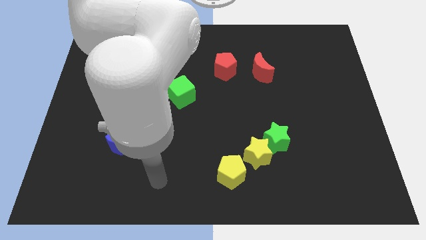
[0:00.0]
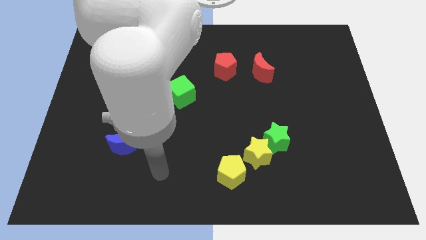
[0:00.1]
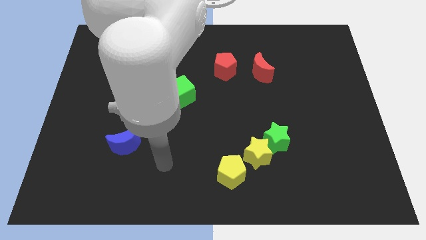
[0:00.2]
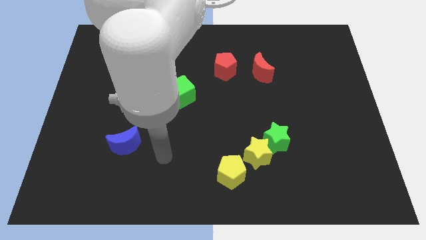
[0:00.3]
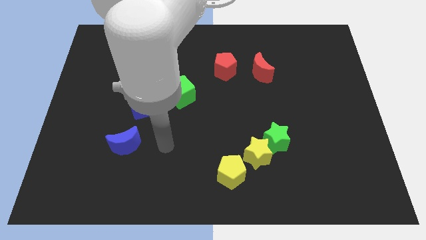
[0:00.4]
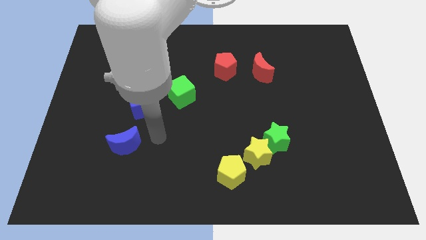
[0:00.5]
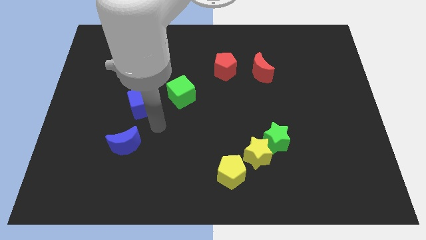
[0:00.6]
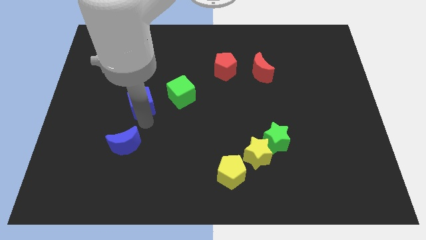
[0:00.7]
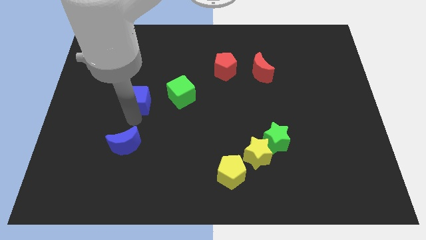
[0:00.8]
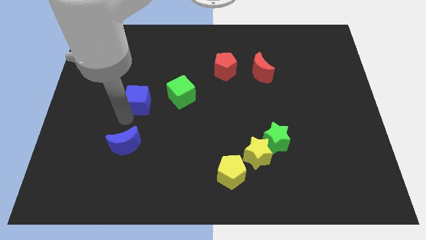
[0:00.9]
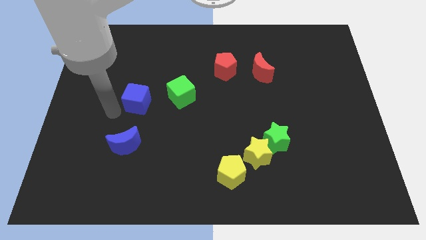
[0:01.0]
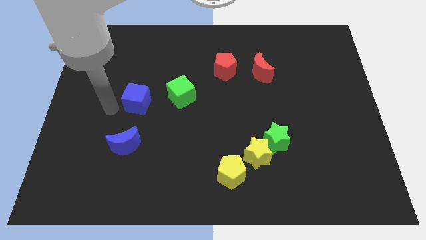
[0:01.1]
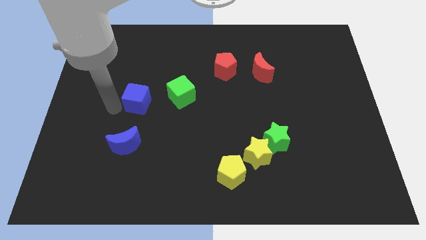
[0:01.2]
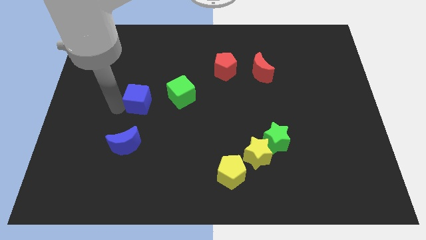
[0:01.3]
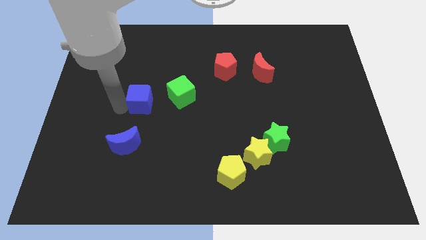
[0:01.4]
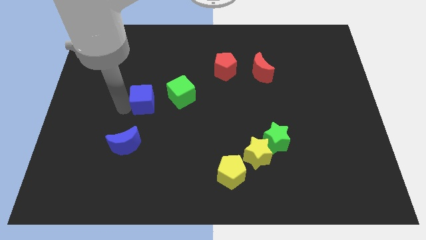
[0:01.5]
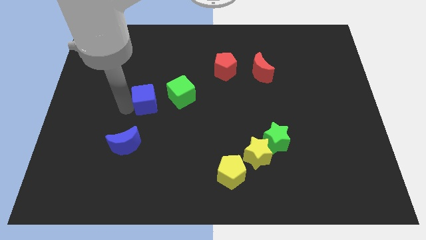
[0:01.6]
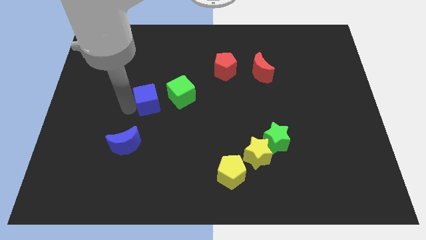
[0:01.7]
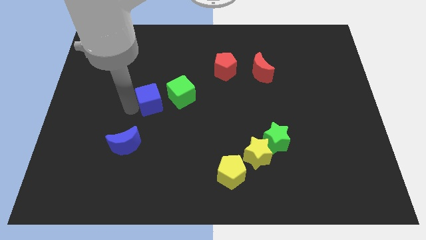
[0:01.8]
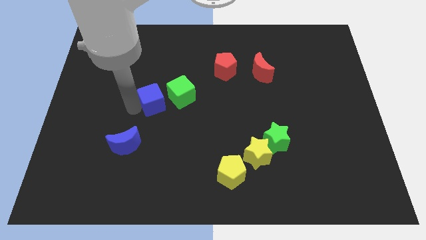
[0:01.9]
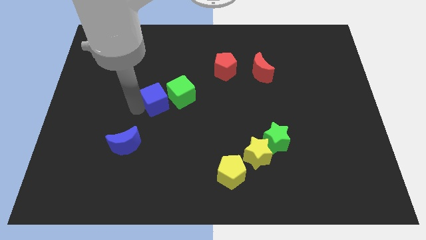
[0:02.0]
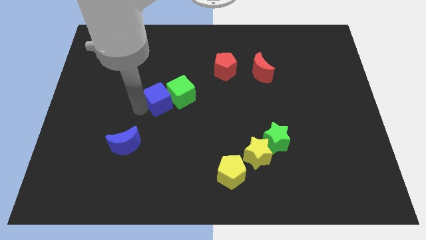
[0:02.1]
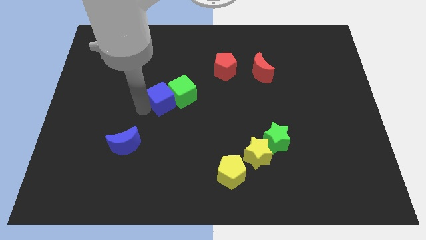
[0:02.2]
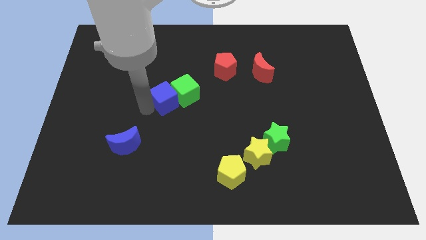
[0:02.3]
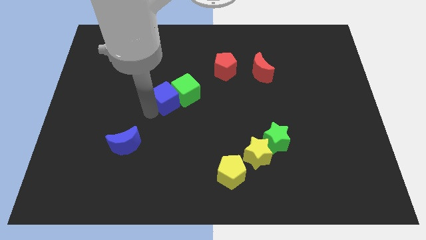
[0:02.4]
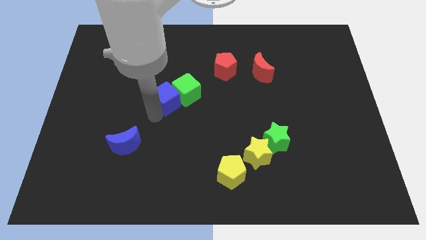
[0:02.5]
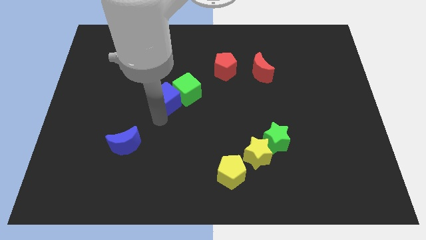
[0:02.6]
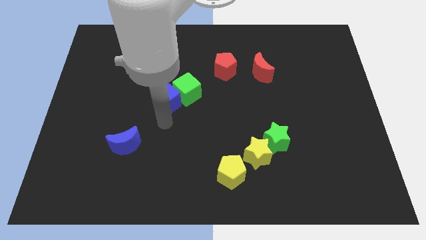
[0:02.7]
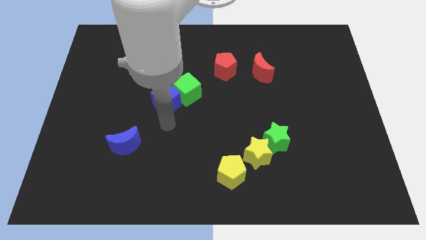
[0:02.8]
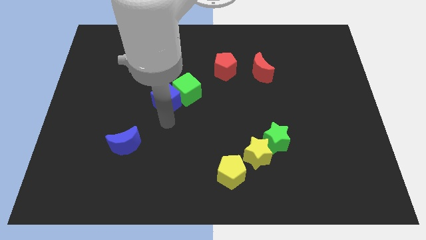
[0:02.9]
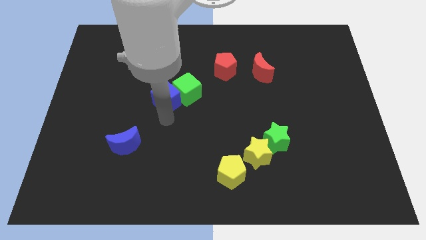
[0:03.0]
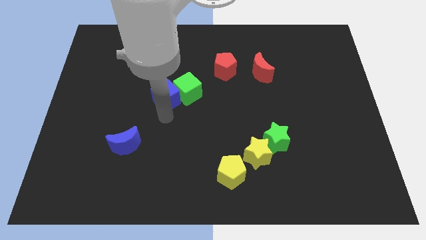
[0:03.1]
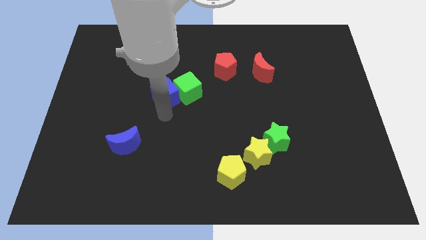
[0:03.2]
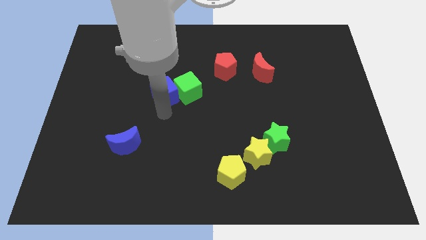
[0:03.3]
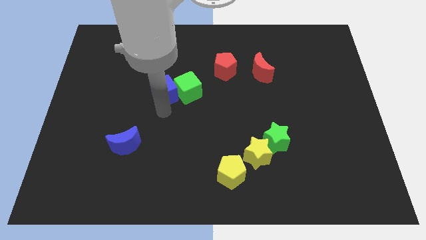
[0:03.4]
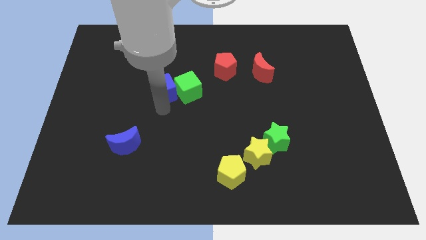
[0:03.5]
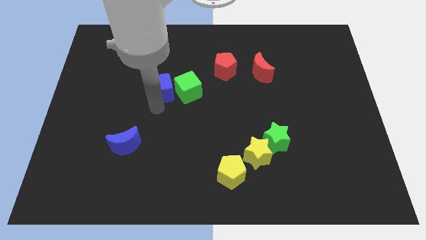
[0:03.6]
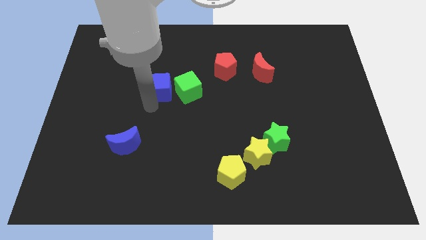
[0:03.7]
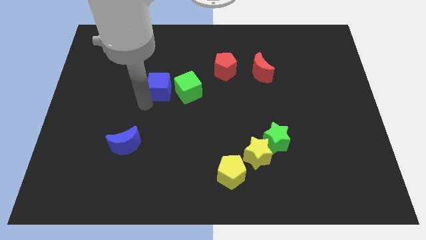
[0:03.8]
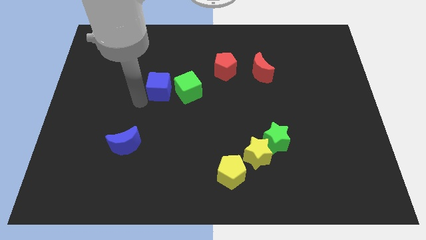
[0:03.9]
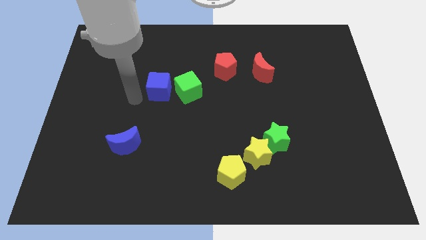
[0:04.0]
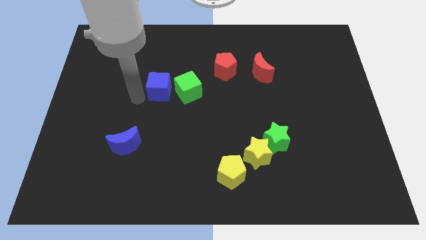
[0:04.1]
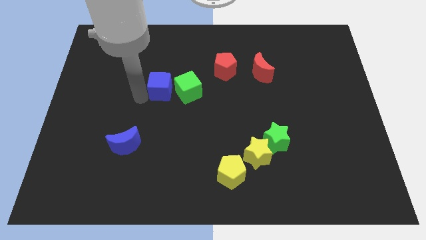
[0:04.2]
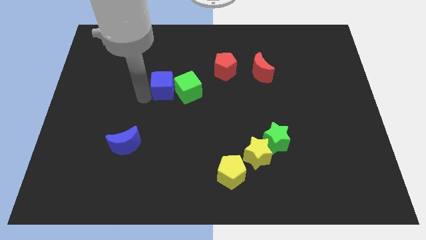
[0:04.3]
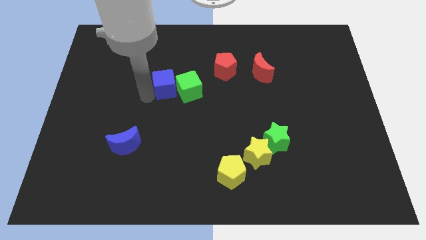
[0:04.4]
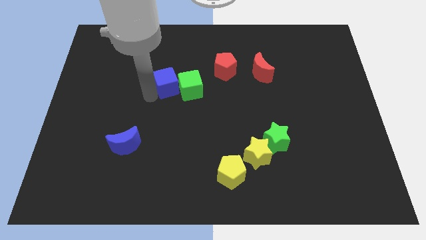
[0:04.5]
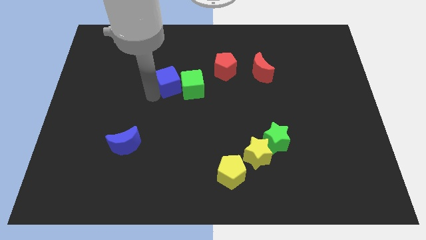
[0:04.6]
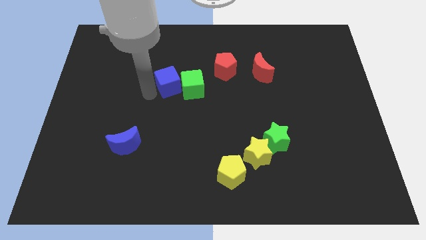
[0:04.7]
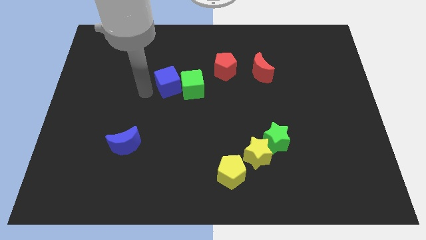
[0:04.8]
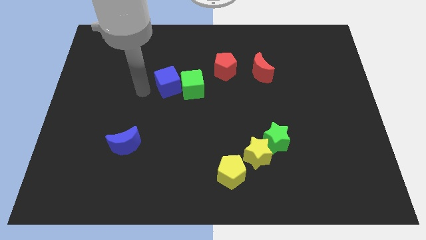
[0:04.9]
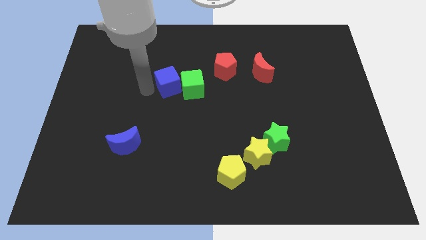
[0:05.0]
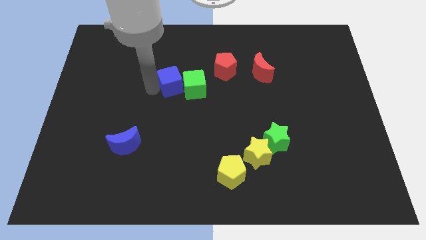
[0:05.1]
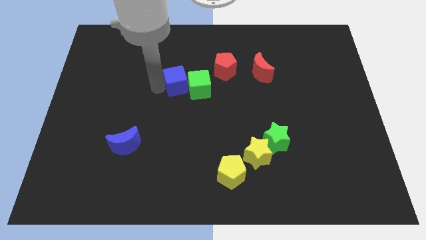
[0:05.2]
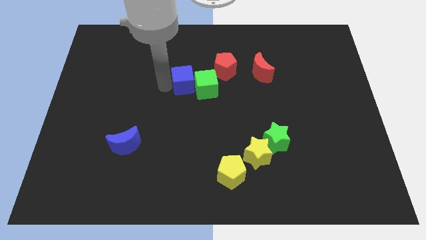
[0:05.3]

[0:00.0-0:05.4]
slide the blue cube diagonally down and to the left of the red pentagon

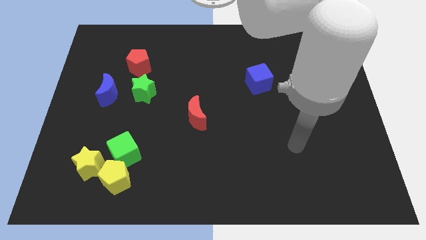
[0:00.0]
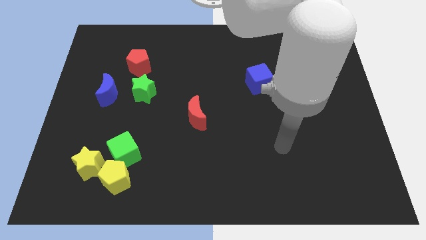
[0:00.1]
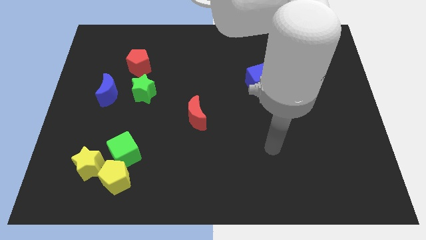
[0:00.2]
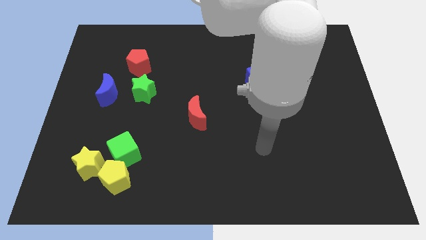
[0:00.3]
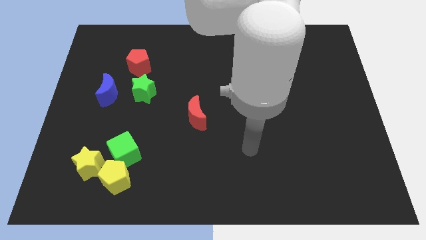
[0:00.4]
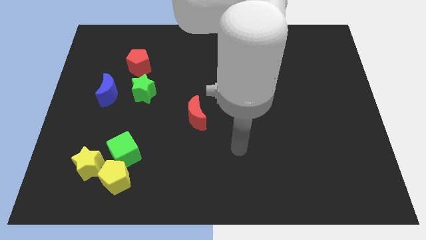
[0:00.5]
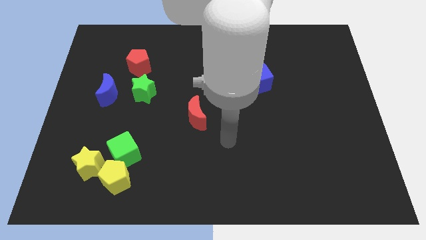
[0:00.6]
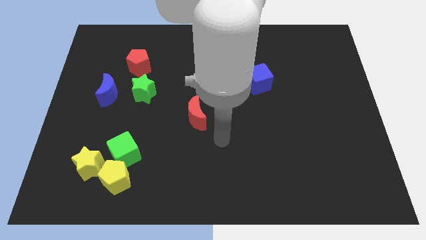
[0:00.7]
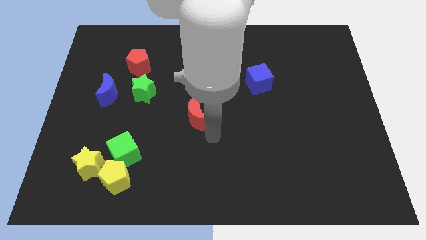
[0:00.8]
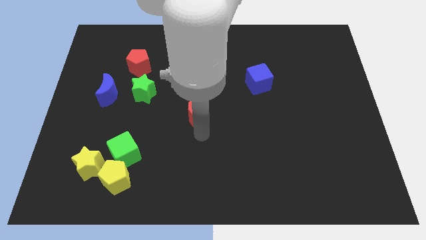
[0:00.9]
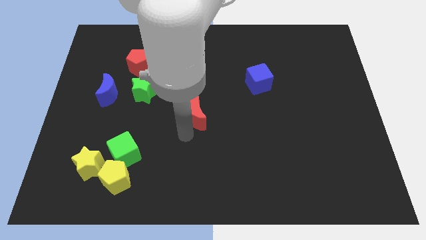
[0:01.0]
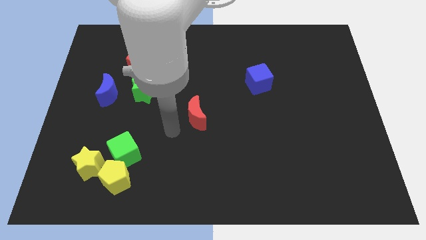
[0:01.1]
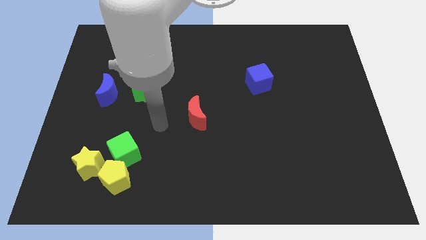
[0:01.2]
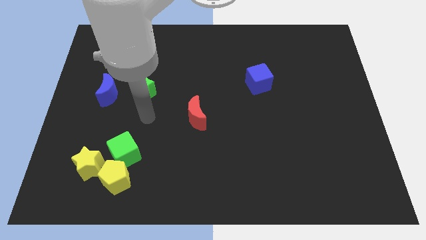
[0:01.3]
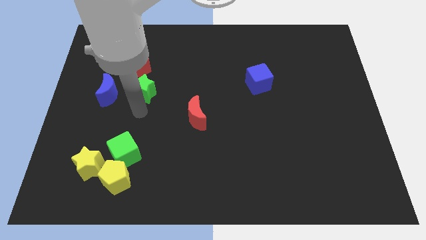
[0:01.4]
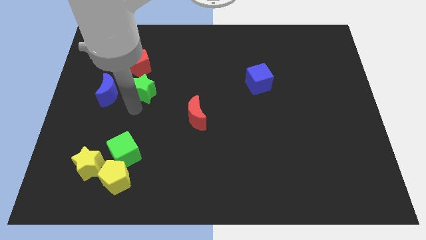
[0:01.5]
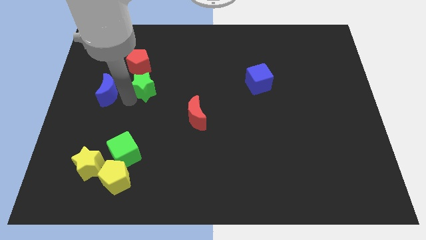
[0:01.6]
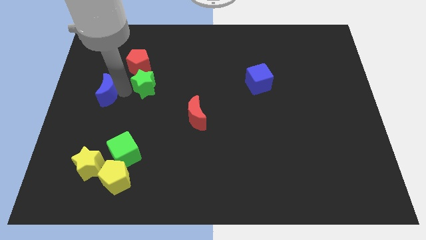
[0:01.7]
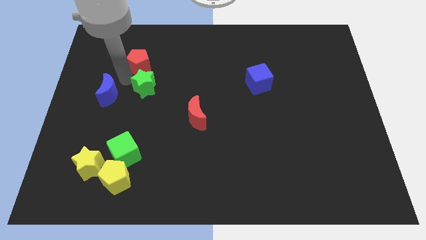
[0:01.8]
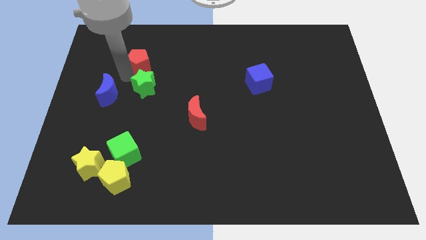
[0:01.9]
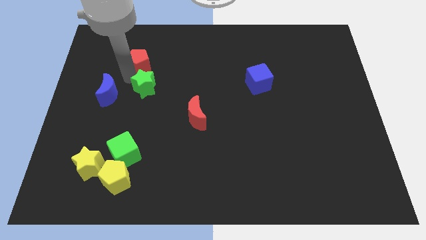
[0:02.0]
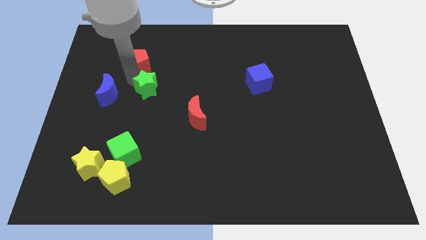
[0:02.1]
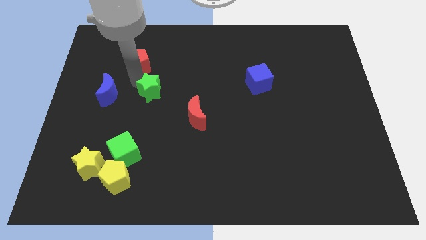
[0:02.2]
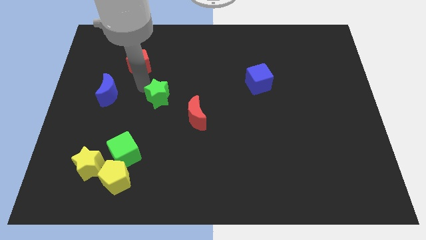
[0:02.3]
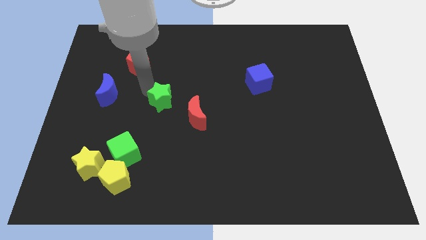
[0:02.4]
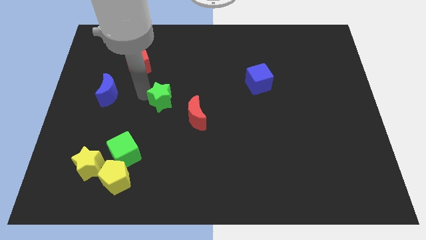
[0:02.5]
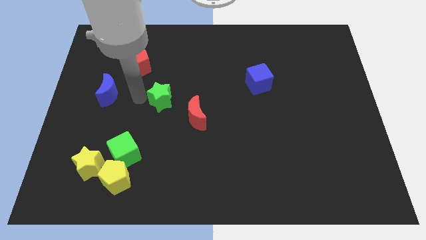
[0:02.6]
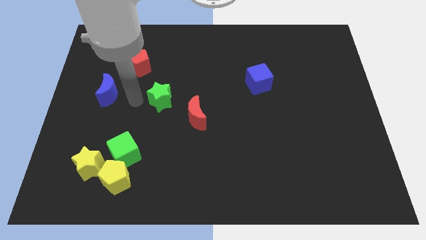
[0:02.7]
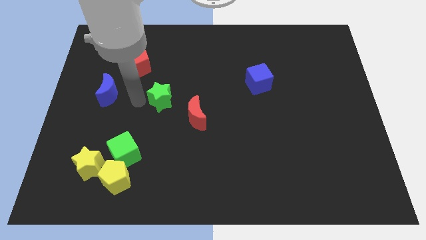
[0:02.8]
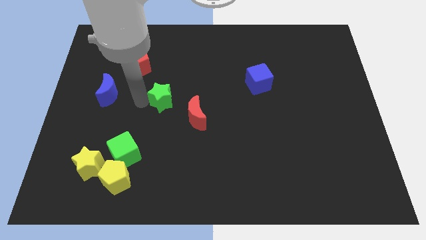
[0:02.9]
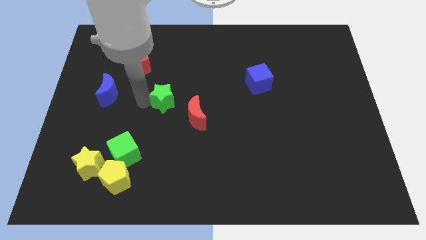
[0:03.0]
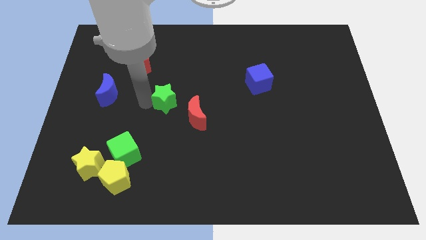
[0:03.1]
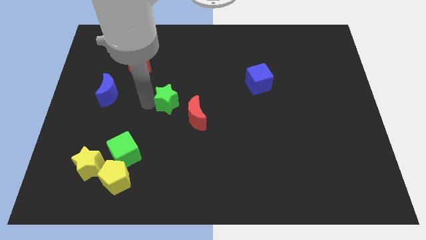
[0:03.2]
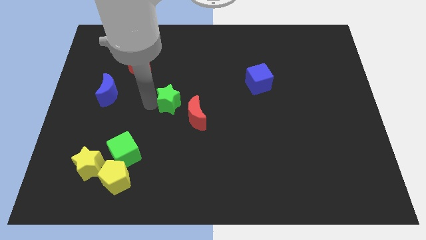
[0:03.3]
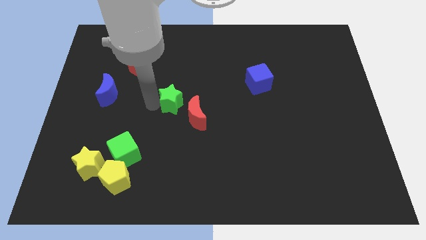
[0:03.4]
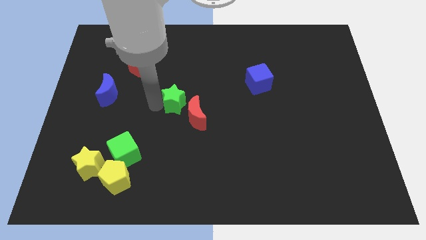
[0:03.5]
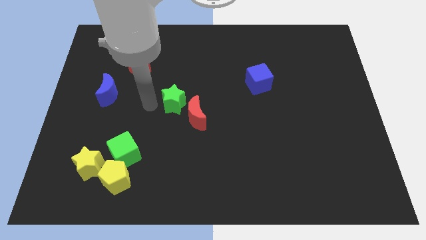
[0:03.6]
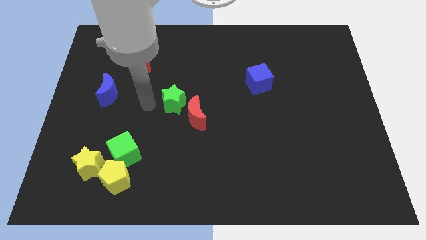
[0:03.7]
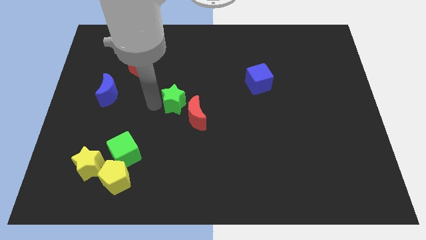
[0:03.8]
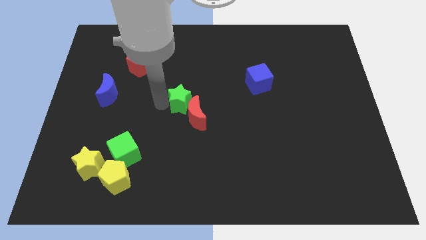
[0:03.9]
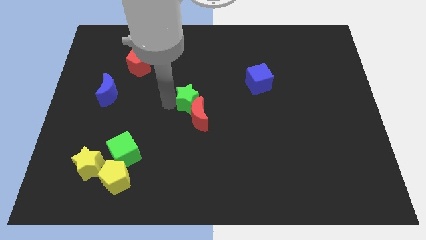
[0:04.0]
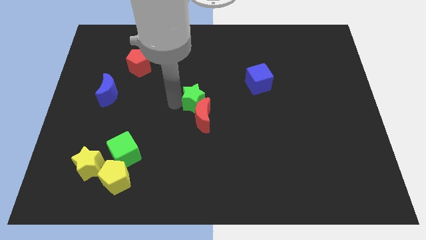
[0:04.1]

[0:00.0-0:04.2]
slide the green star to the top right side of the red moon
